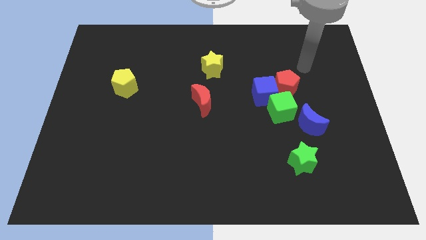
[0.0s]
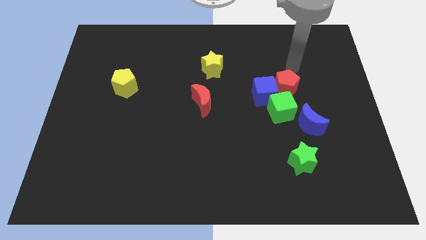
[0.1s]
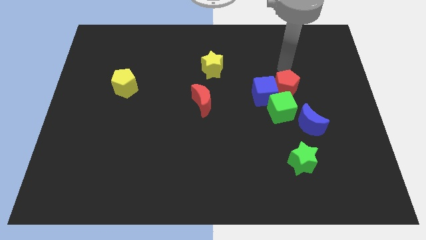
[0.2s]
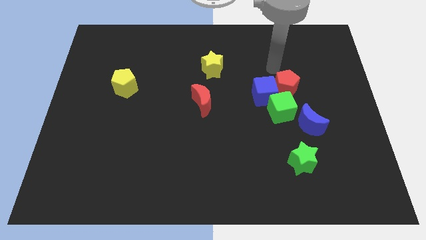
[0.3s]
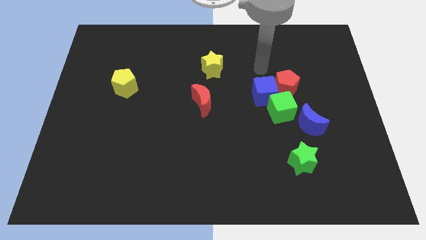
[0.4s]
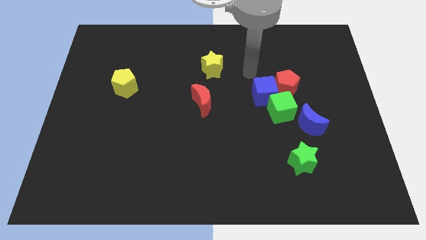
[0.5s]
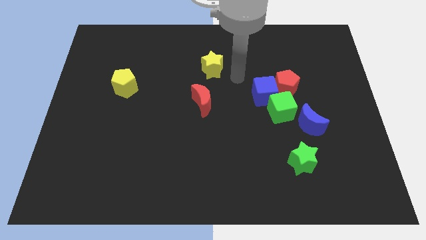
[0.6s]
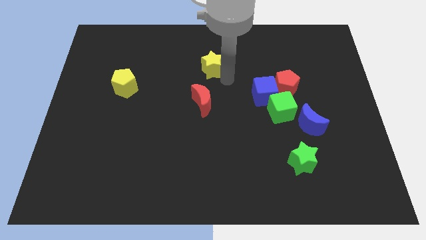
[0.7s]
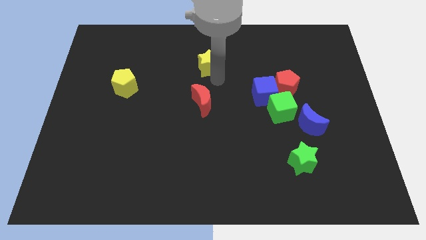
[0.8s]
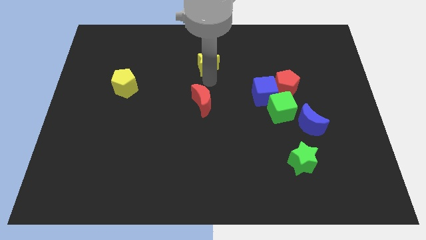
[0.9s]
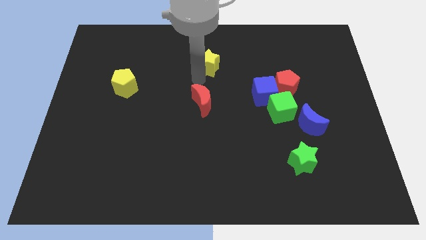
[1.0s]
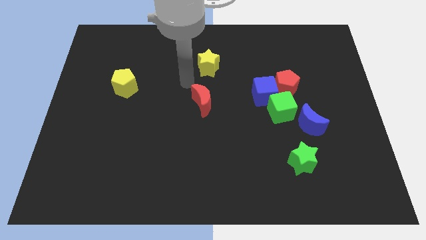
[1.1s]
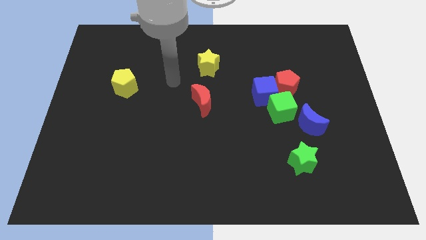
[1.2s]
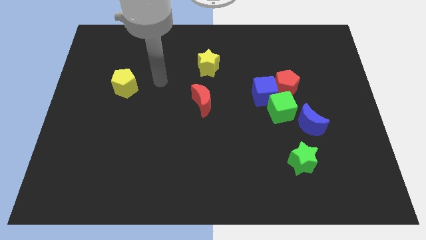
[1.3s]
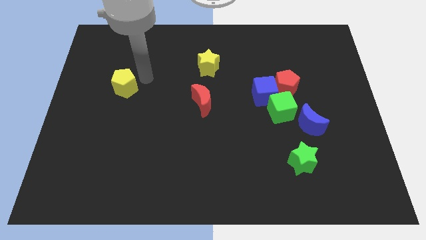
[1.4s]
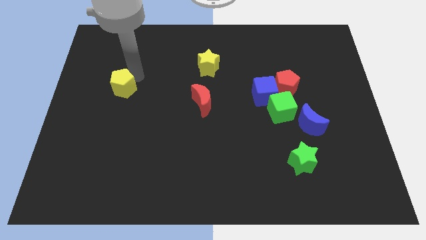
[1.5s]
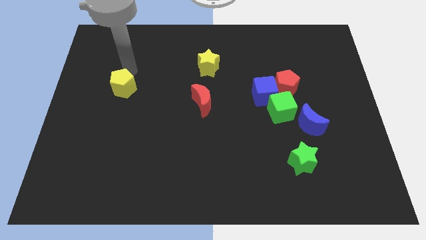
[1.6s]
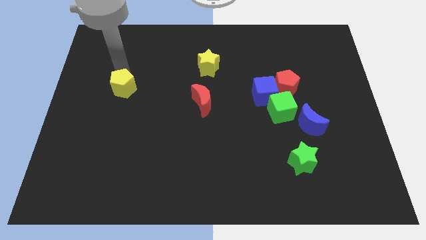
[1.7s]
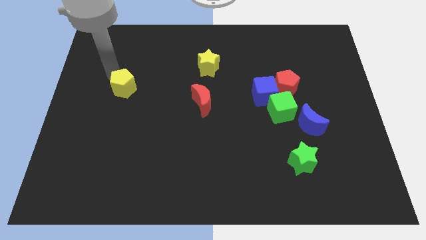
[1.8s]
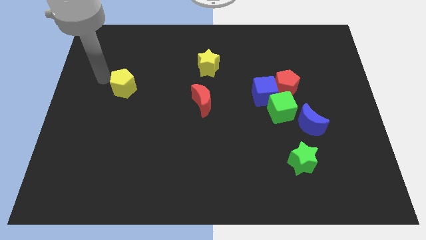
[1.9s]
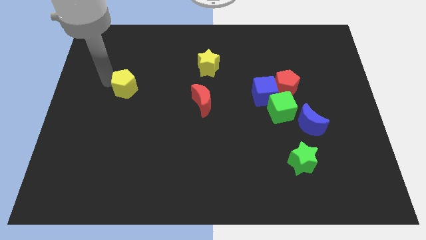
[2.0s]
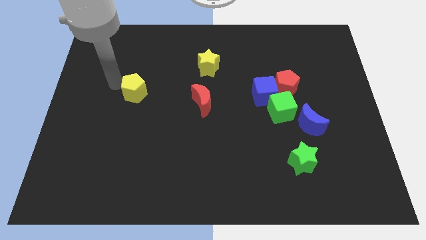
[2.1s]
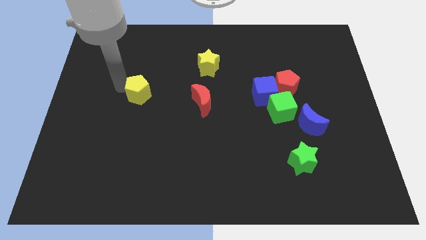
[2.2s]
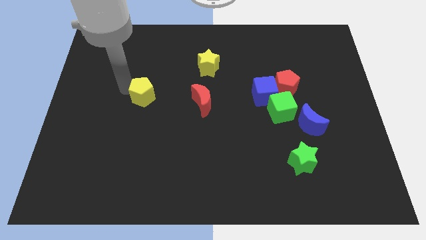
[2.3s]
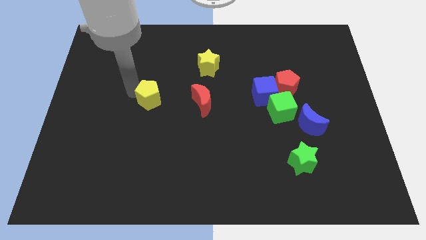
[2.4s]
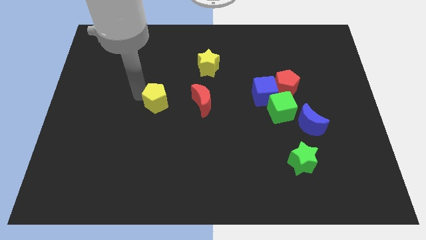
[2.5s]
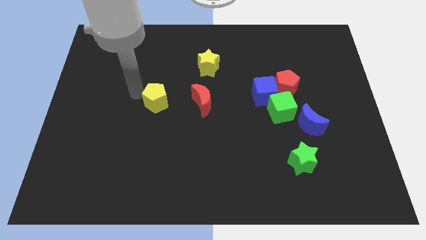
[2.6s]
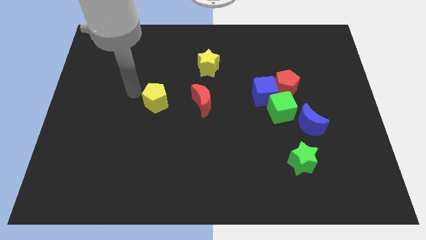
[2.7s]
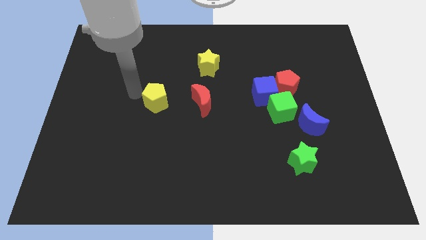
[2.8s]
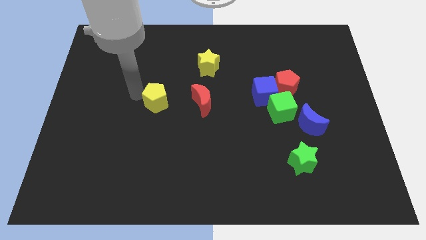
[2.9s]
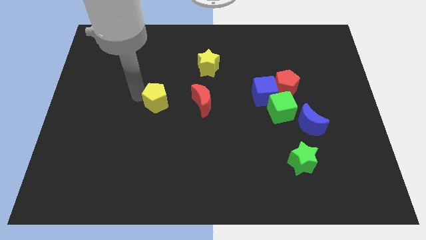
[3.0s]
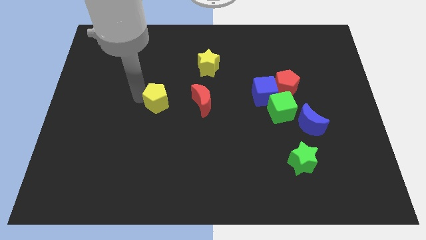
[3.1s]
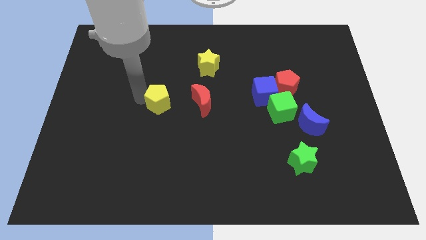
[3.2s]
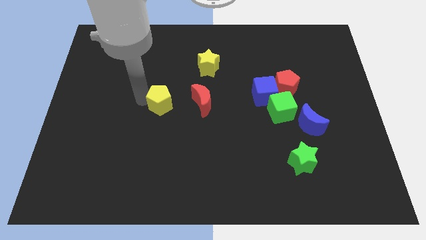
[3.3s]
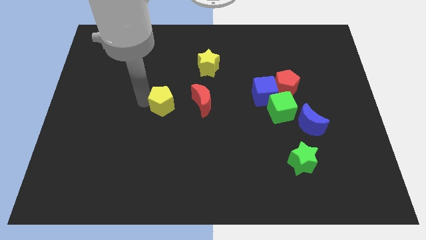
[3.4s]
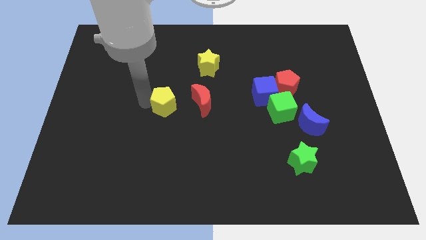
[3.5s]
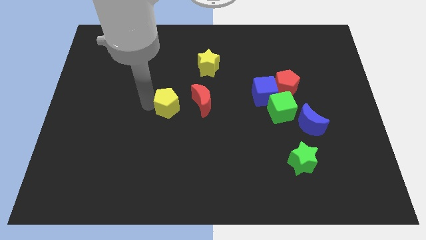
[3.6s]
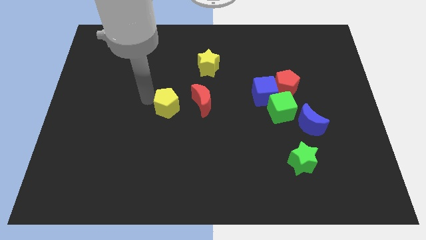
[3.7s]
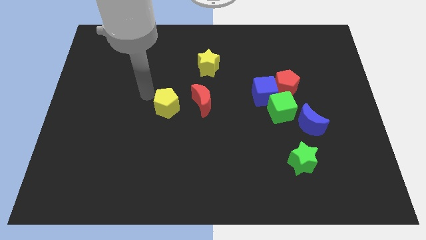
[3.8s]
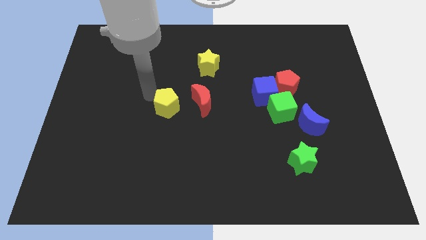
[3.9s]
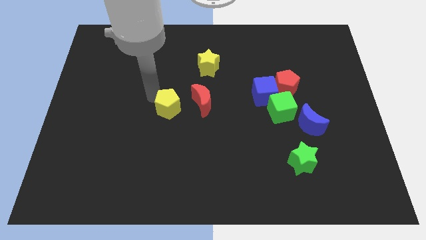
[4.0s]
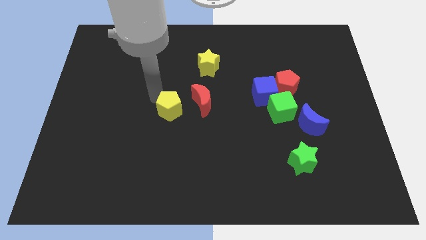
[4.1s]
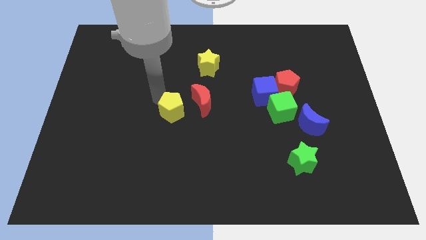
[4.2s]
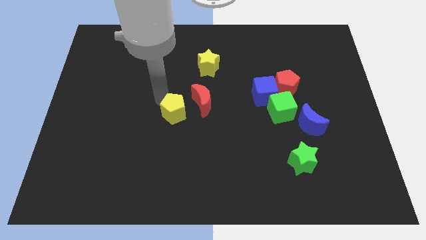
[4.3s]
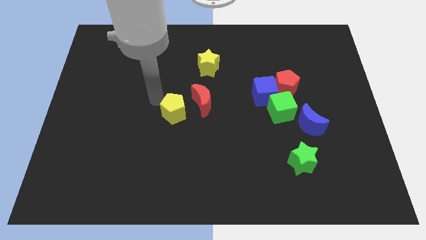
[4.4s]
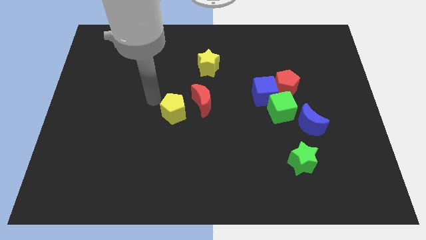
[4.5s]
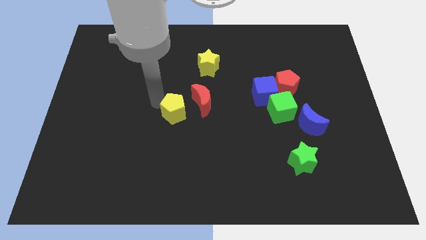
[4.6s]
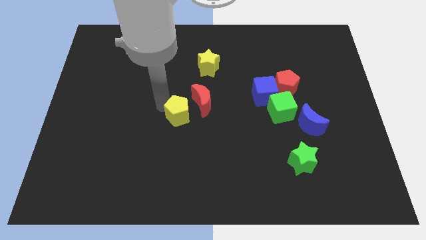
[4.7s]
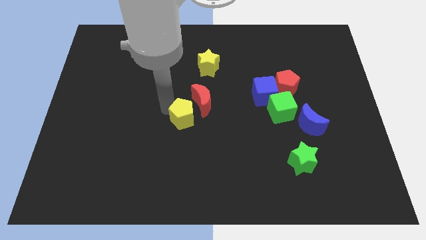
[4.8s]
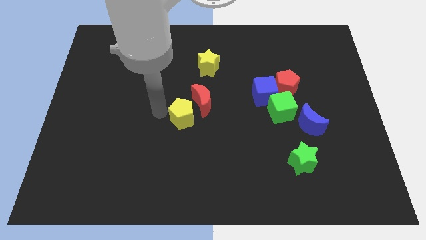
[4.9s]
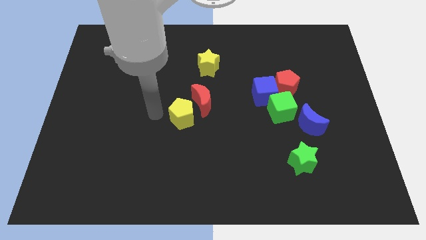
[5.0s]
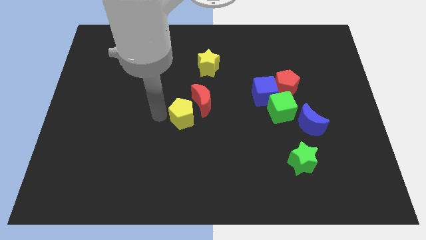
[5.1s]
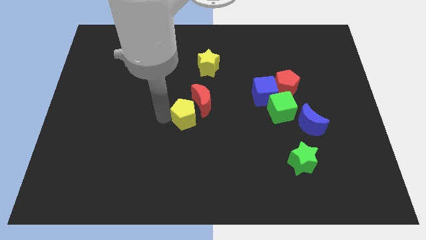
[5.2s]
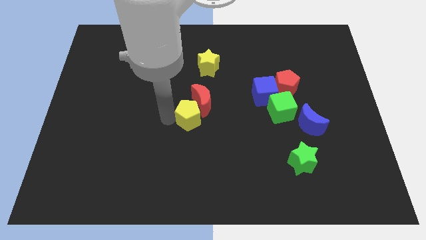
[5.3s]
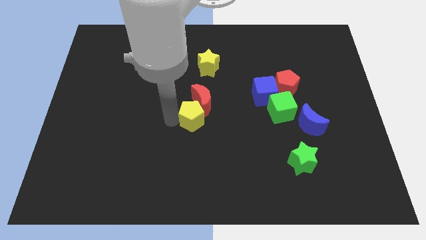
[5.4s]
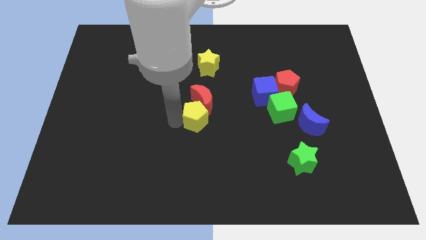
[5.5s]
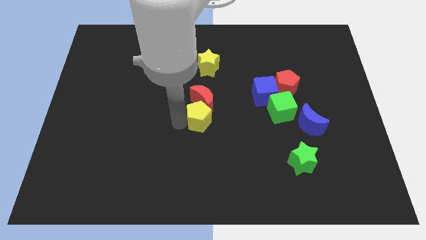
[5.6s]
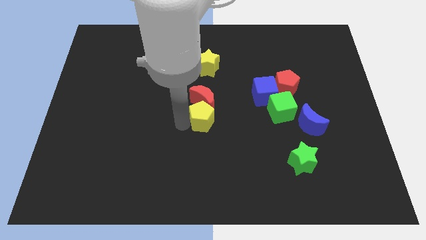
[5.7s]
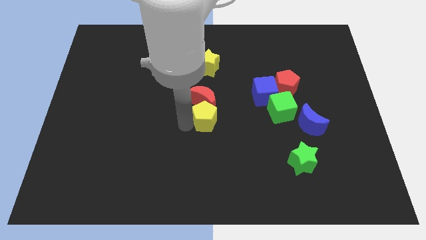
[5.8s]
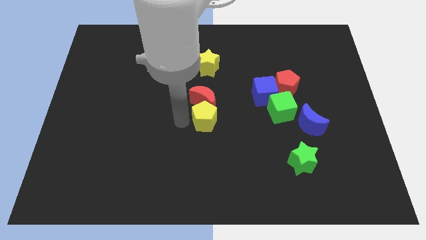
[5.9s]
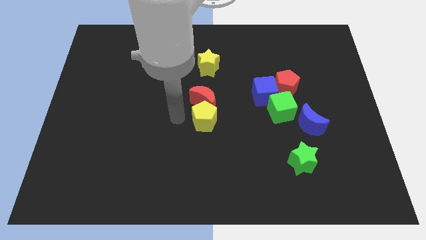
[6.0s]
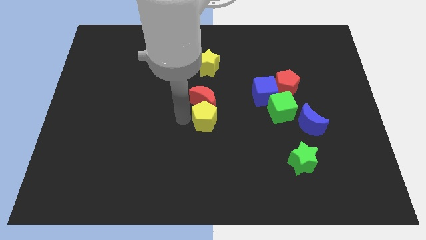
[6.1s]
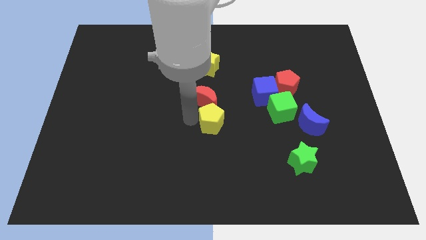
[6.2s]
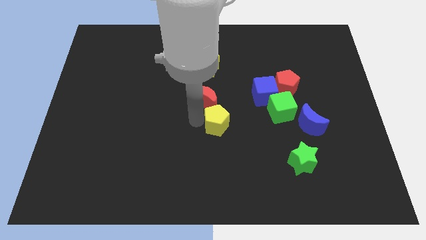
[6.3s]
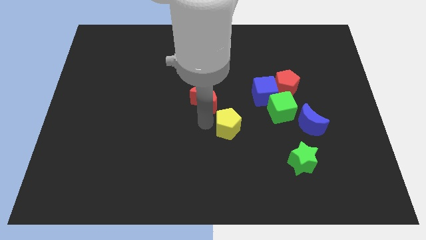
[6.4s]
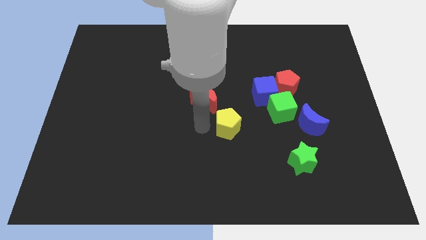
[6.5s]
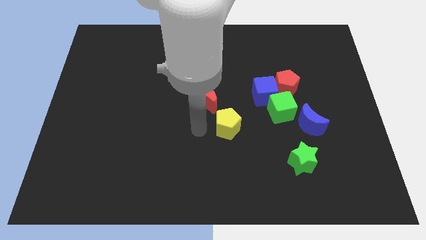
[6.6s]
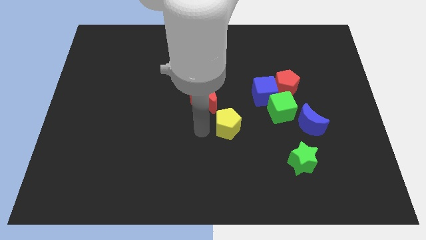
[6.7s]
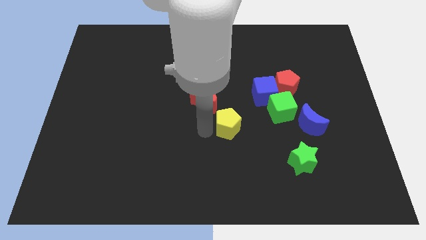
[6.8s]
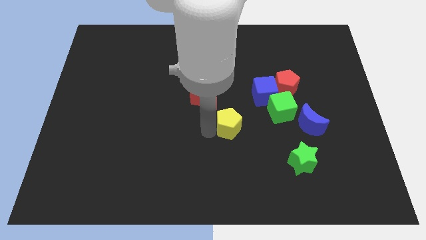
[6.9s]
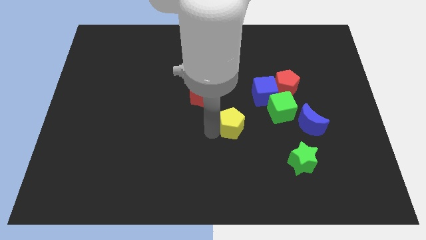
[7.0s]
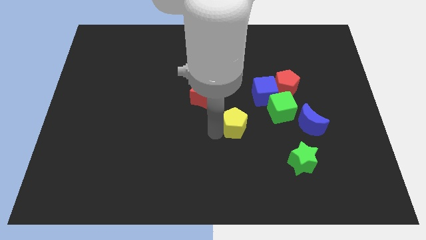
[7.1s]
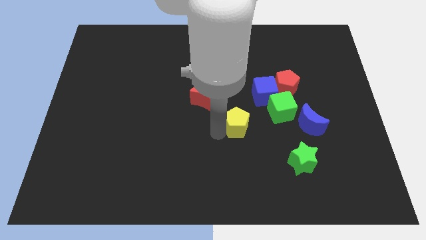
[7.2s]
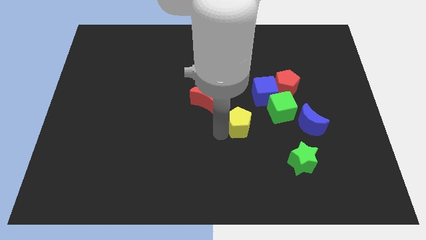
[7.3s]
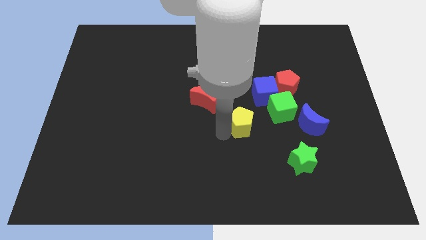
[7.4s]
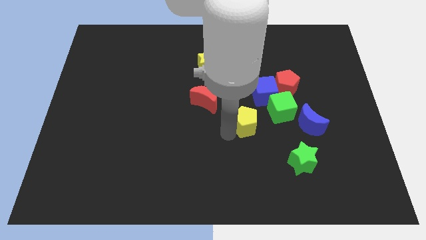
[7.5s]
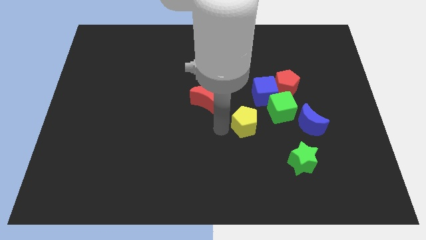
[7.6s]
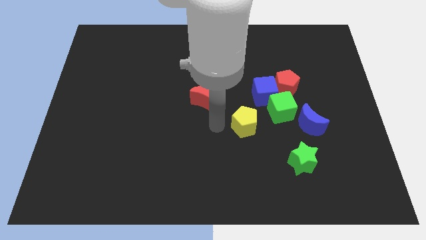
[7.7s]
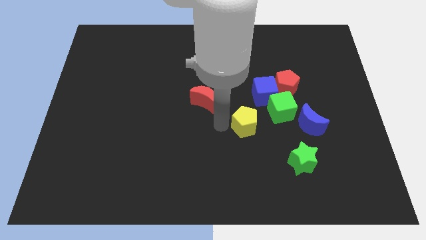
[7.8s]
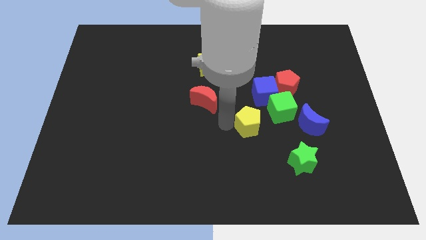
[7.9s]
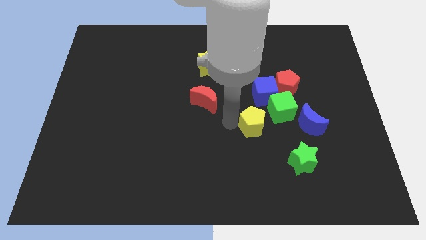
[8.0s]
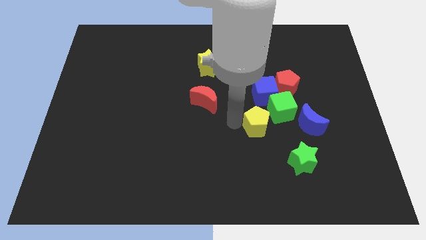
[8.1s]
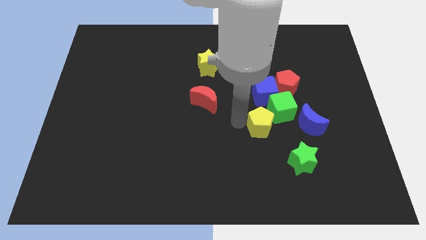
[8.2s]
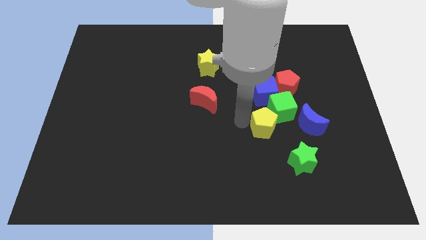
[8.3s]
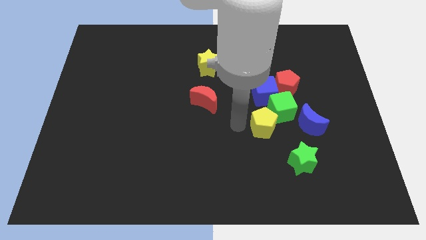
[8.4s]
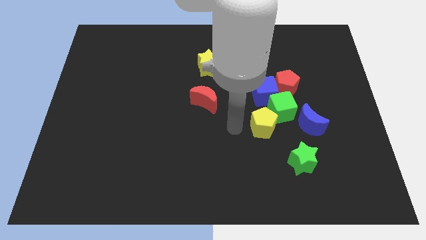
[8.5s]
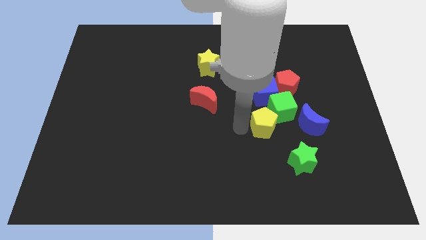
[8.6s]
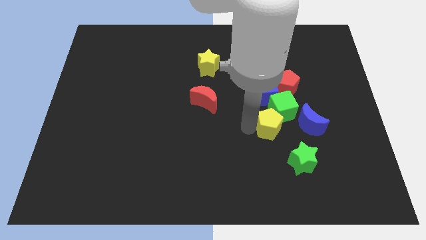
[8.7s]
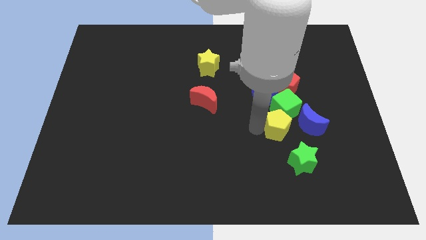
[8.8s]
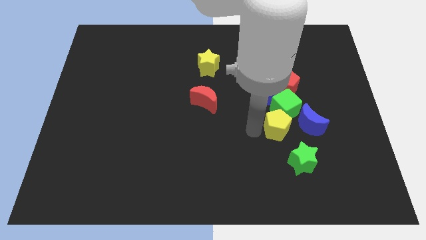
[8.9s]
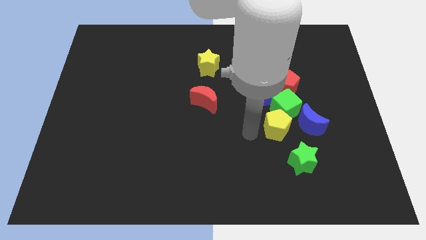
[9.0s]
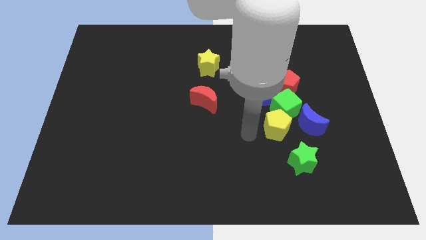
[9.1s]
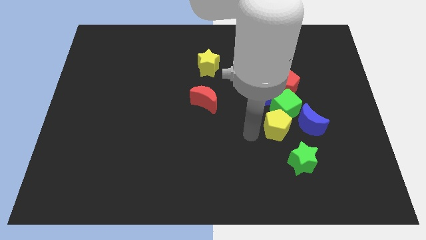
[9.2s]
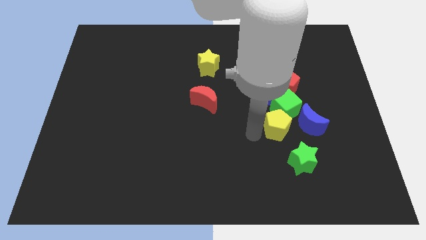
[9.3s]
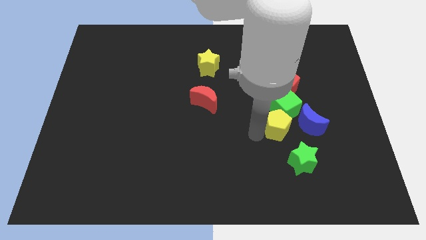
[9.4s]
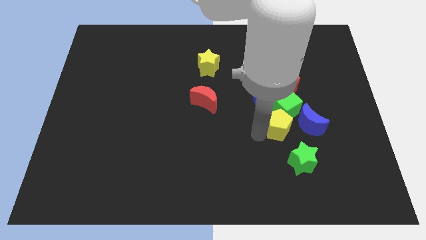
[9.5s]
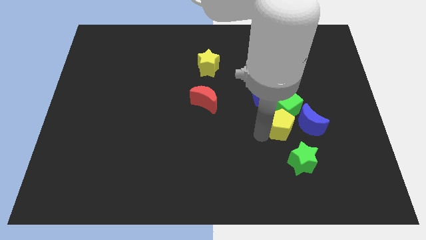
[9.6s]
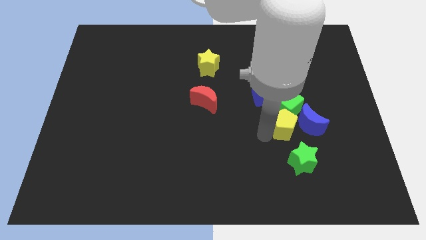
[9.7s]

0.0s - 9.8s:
move the yellow pentagon next to the blue moon
